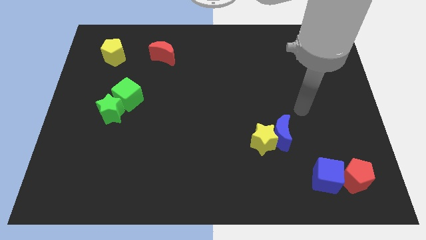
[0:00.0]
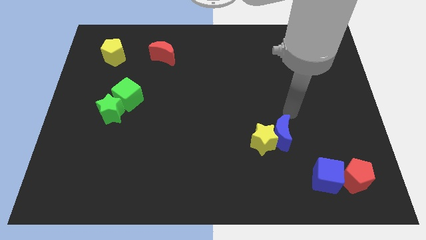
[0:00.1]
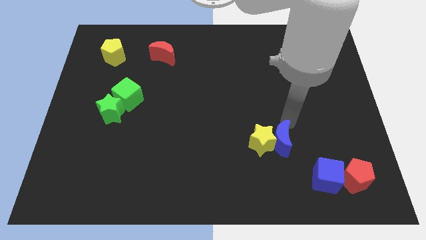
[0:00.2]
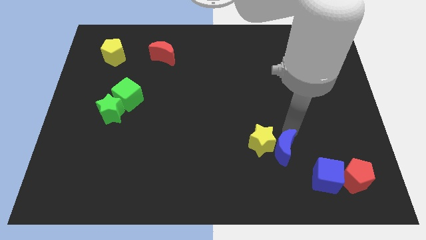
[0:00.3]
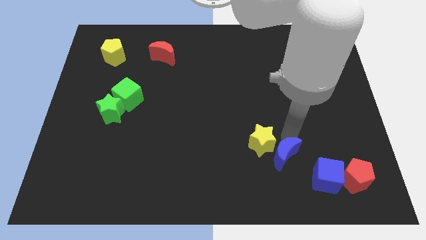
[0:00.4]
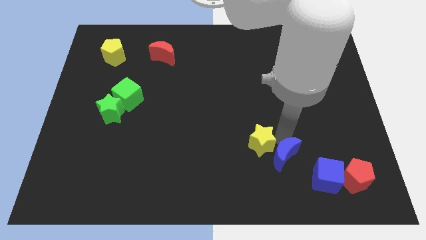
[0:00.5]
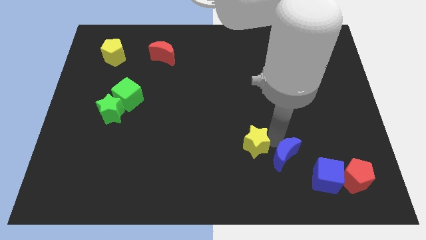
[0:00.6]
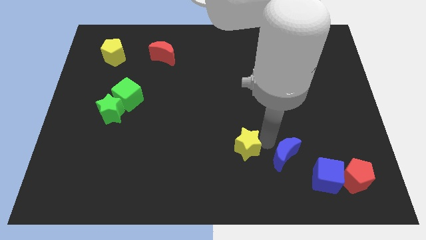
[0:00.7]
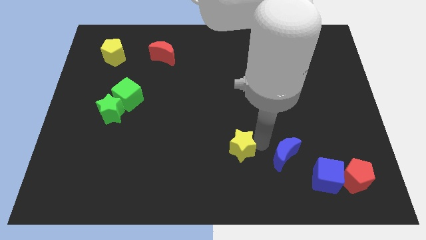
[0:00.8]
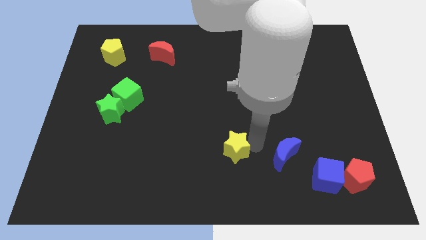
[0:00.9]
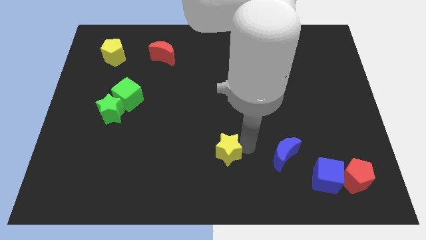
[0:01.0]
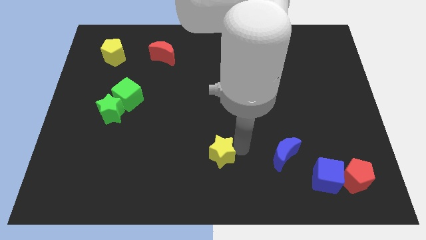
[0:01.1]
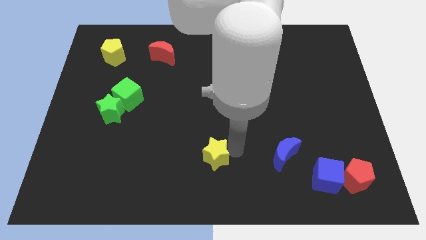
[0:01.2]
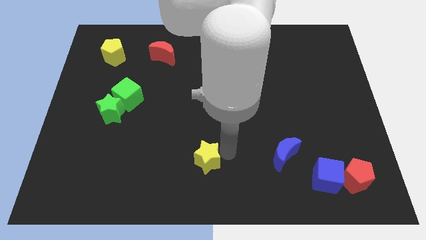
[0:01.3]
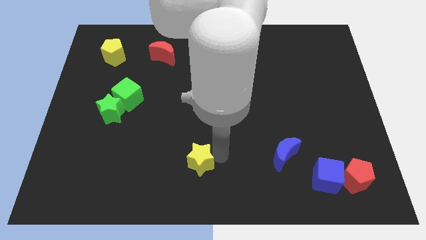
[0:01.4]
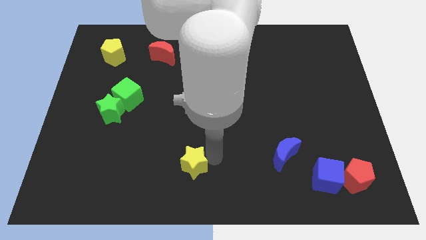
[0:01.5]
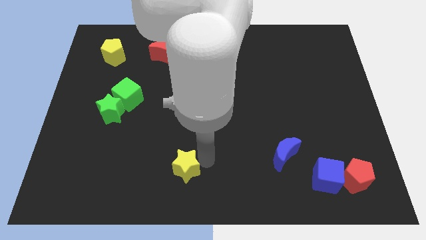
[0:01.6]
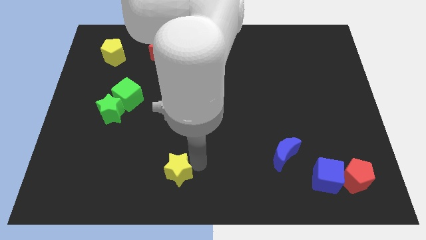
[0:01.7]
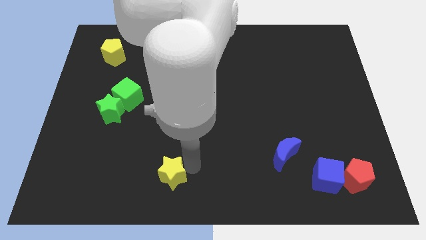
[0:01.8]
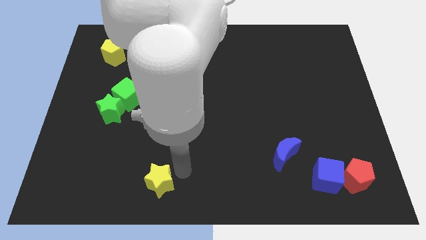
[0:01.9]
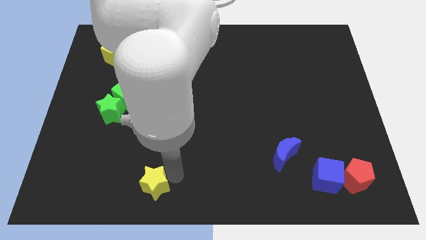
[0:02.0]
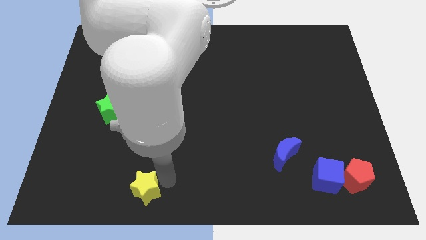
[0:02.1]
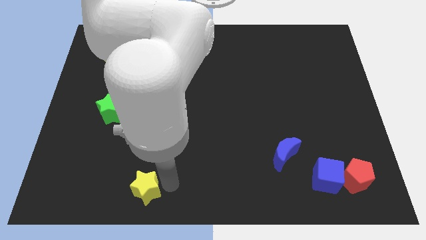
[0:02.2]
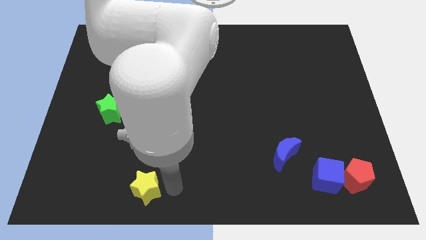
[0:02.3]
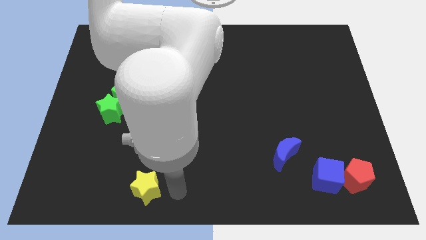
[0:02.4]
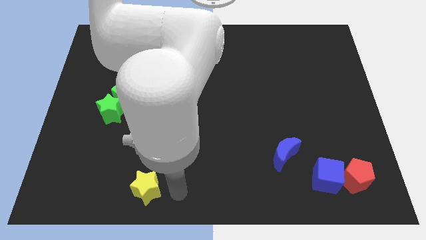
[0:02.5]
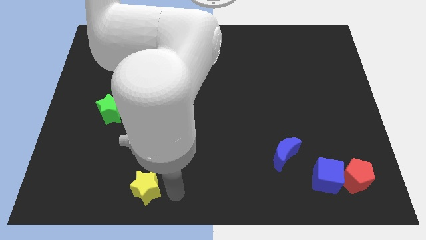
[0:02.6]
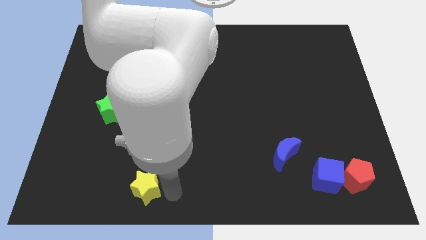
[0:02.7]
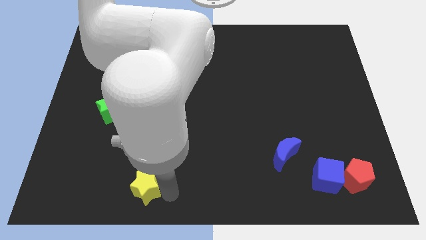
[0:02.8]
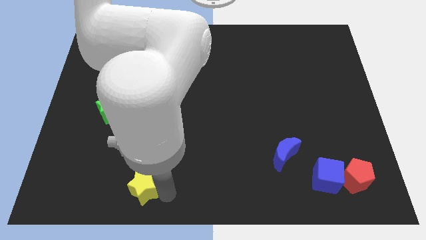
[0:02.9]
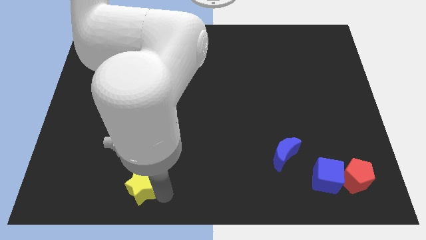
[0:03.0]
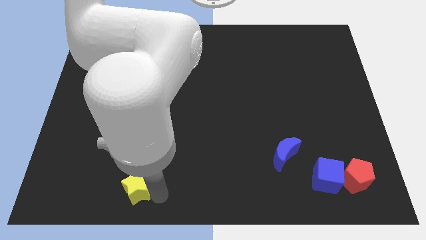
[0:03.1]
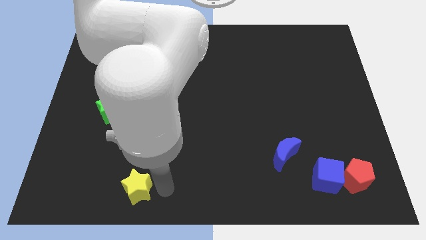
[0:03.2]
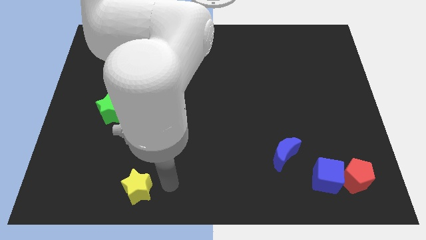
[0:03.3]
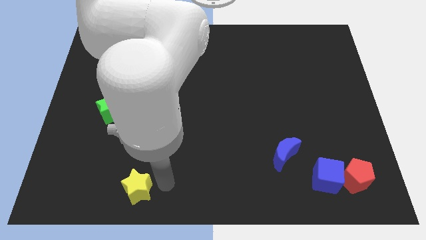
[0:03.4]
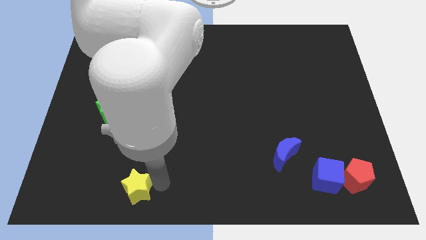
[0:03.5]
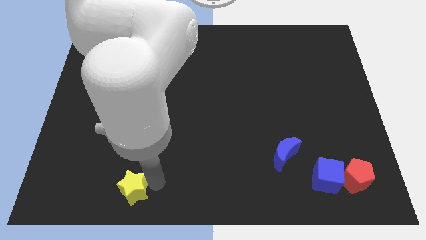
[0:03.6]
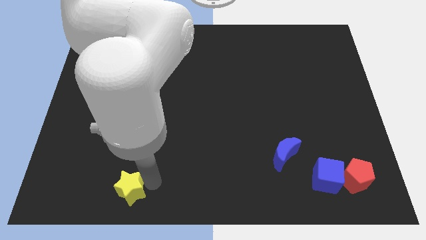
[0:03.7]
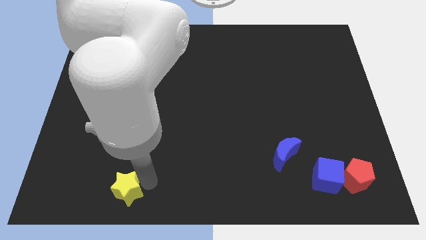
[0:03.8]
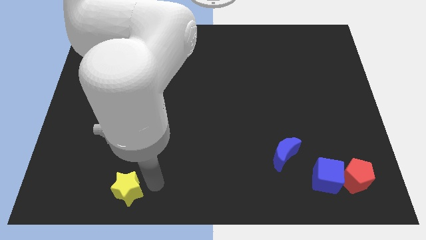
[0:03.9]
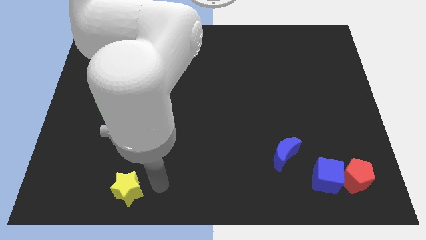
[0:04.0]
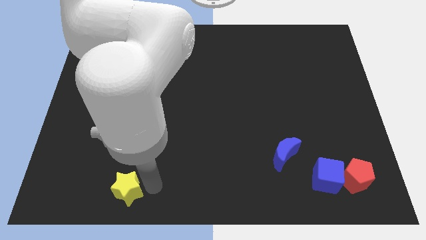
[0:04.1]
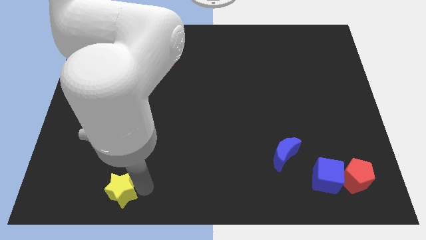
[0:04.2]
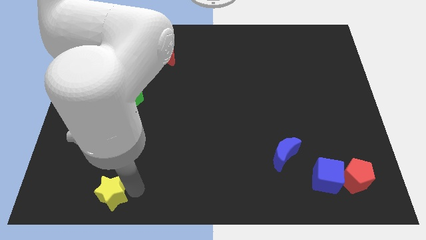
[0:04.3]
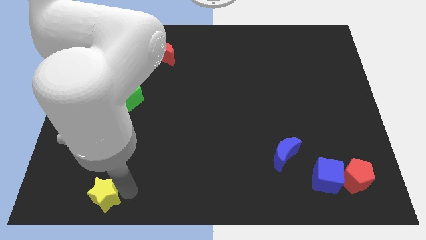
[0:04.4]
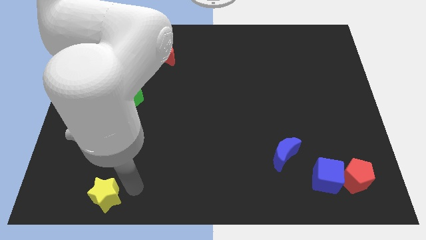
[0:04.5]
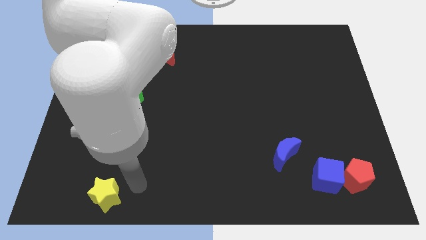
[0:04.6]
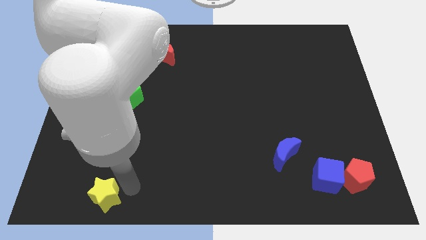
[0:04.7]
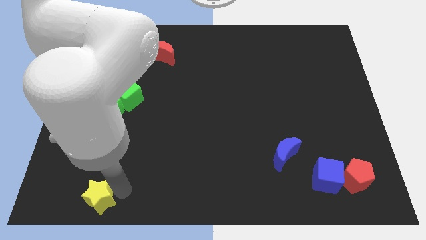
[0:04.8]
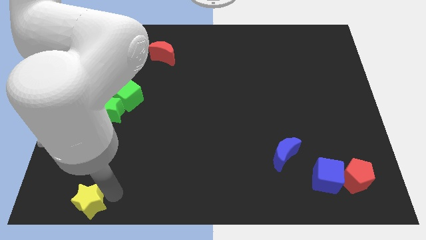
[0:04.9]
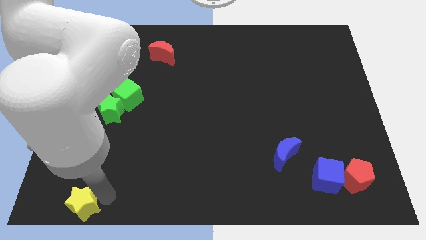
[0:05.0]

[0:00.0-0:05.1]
move the yellow star to the bottom left corner

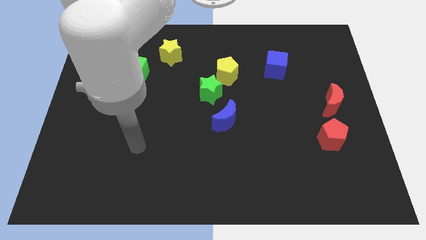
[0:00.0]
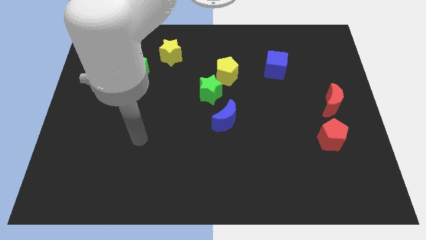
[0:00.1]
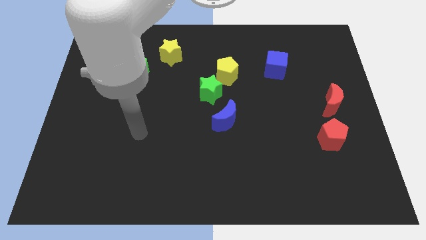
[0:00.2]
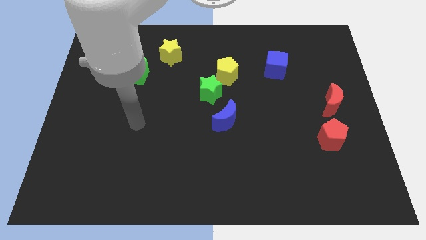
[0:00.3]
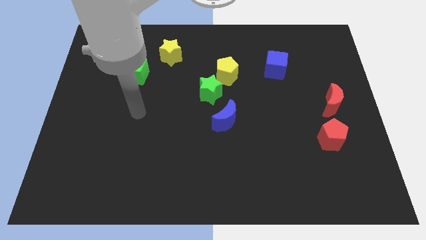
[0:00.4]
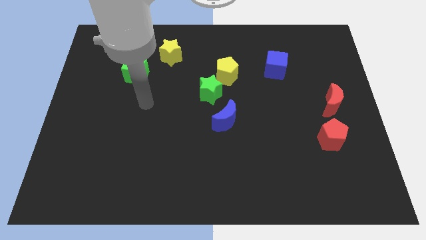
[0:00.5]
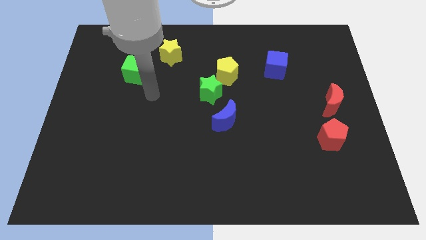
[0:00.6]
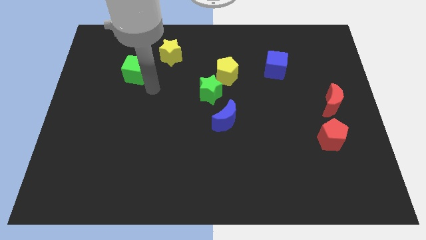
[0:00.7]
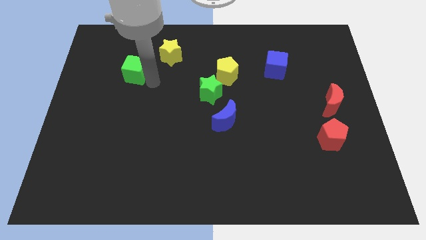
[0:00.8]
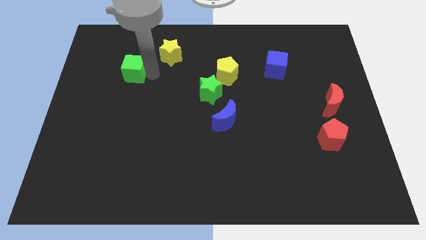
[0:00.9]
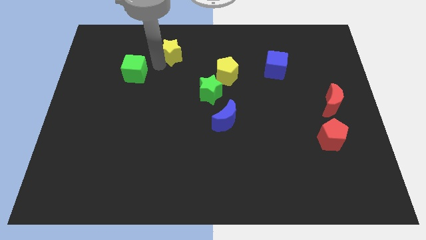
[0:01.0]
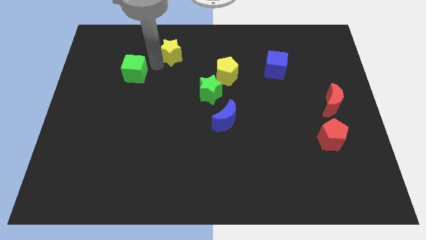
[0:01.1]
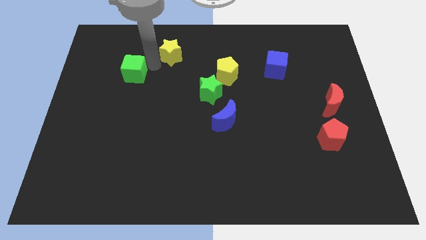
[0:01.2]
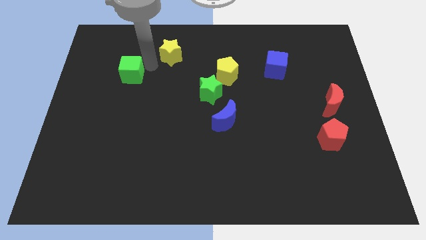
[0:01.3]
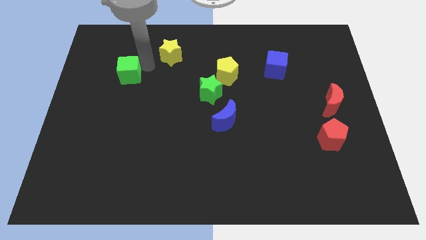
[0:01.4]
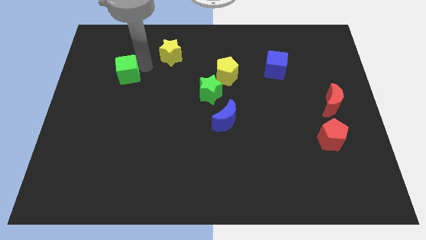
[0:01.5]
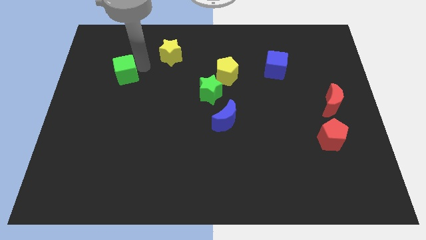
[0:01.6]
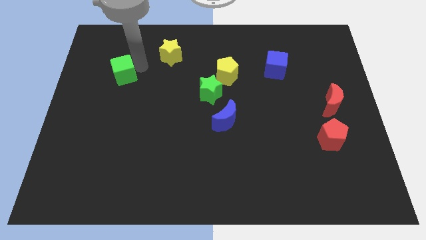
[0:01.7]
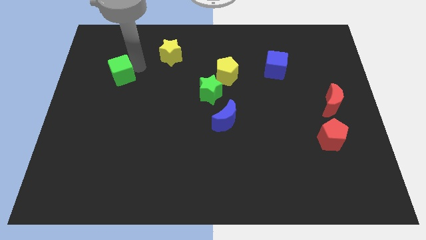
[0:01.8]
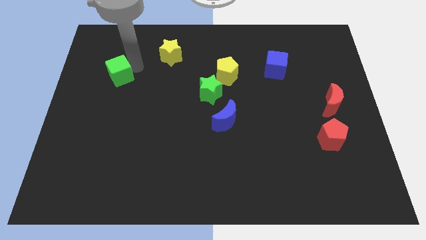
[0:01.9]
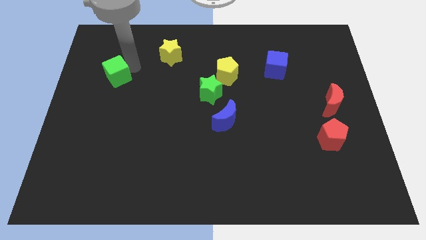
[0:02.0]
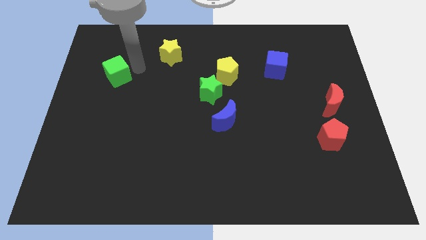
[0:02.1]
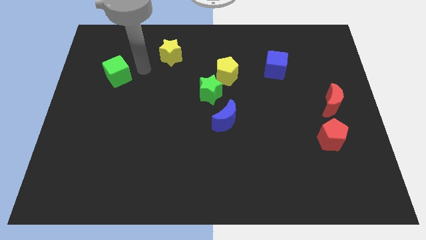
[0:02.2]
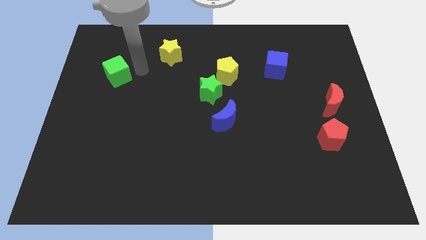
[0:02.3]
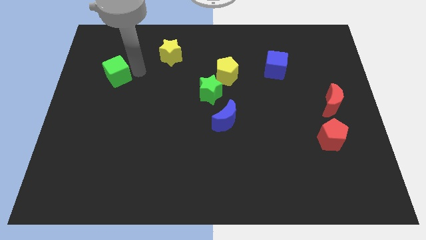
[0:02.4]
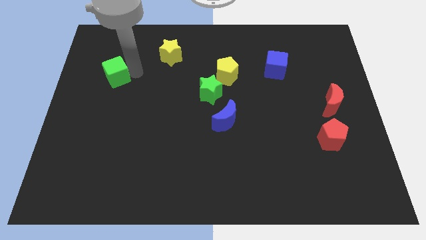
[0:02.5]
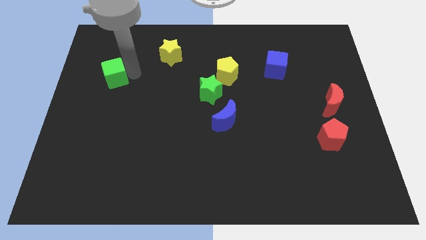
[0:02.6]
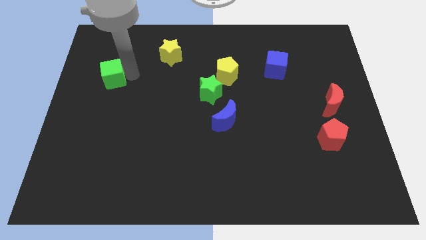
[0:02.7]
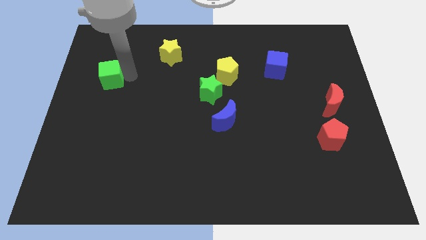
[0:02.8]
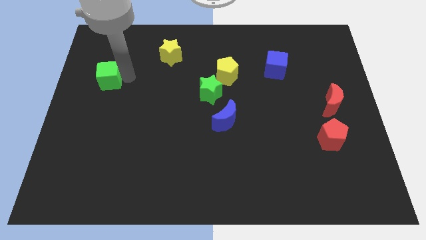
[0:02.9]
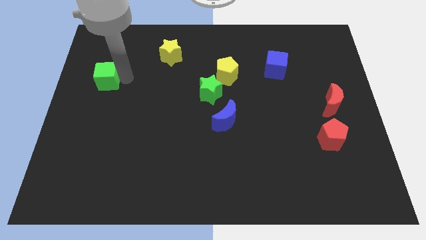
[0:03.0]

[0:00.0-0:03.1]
slide the green cube to the left side
